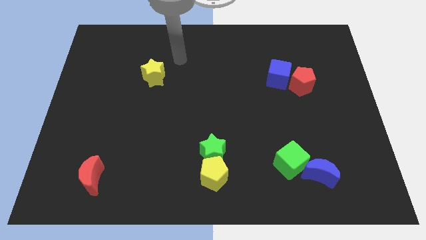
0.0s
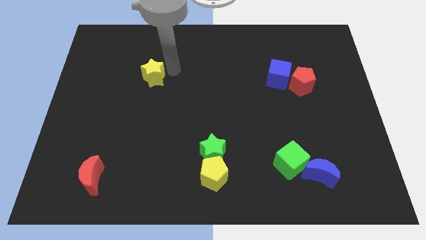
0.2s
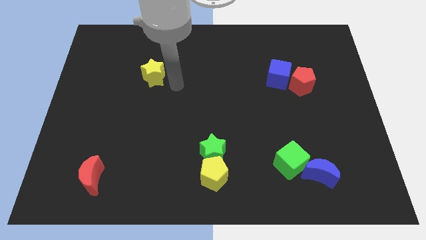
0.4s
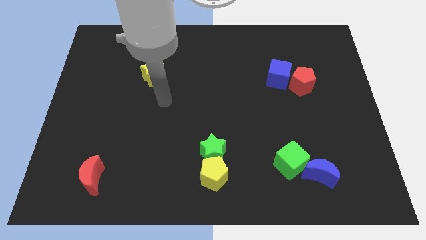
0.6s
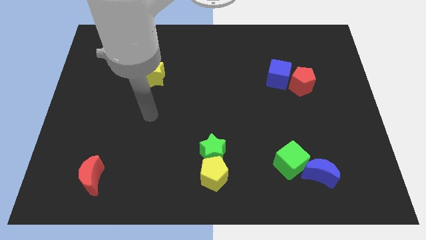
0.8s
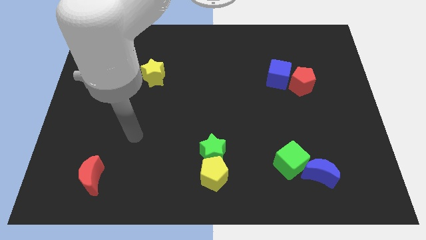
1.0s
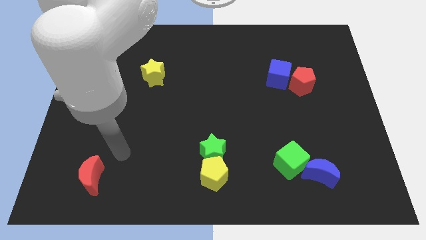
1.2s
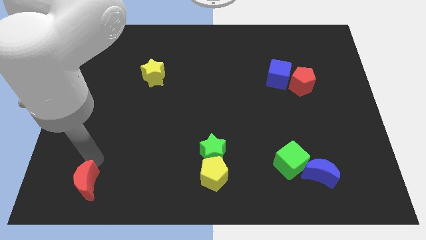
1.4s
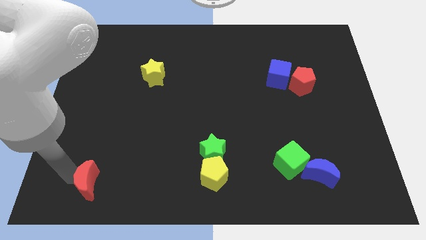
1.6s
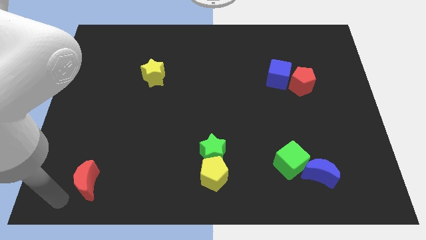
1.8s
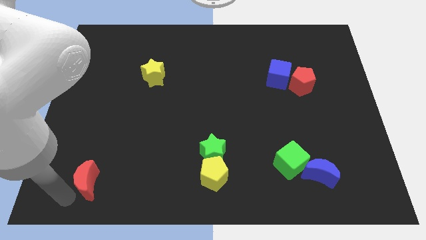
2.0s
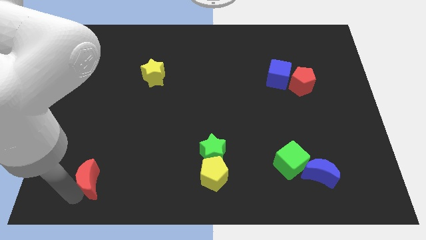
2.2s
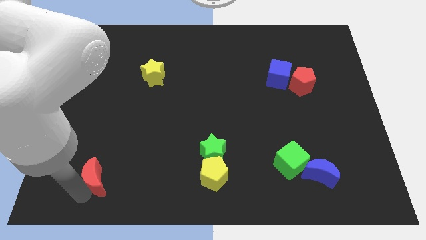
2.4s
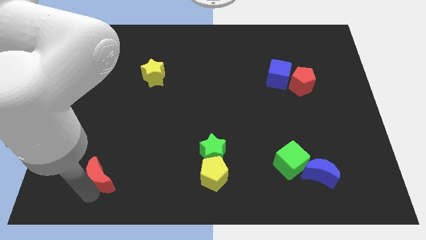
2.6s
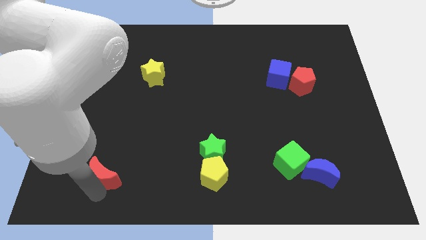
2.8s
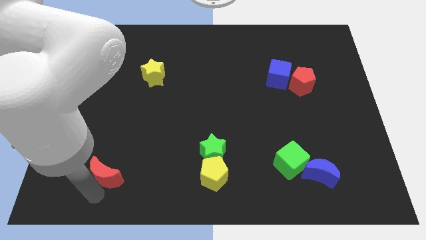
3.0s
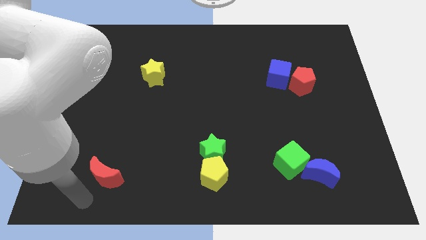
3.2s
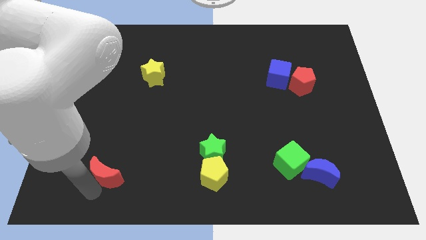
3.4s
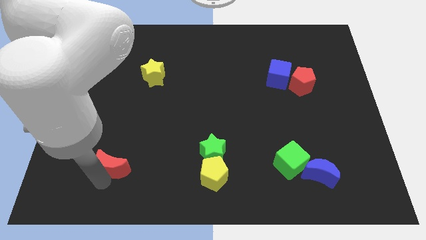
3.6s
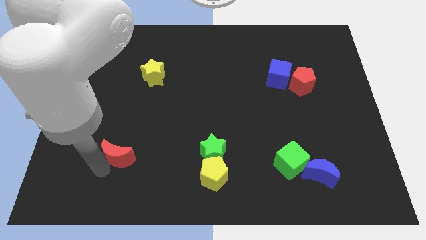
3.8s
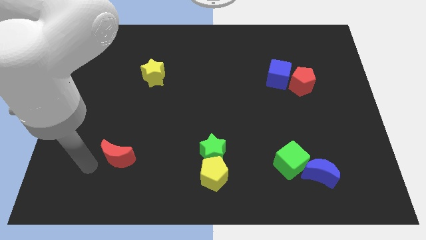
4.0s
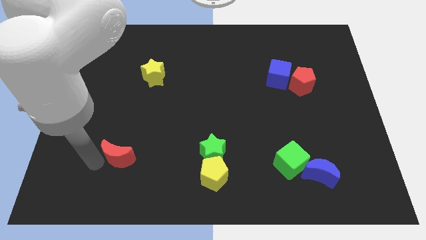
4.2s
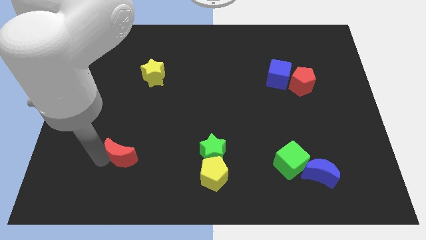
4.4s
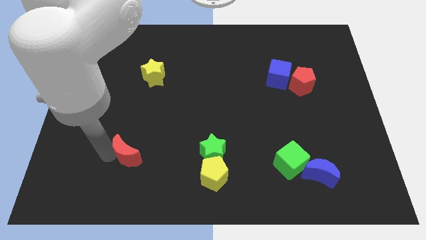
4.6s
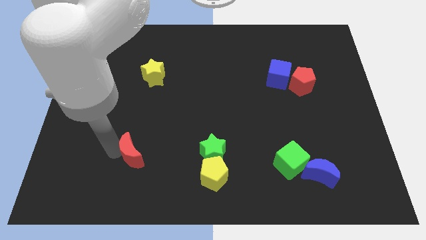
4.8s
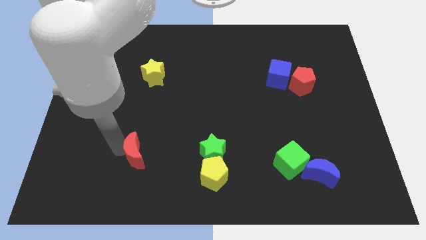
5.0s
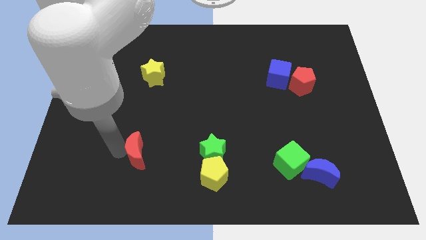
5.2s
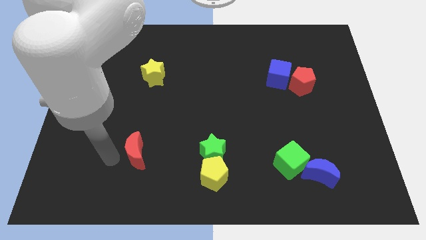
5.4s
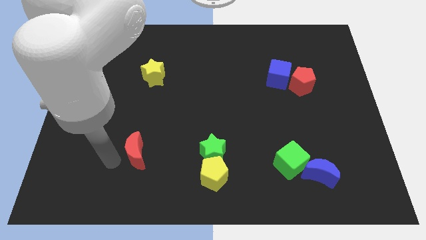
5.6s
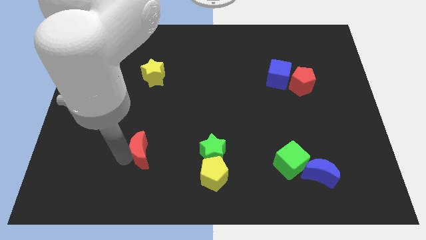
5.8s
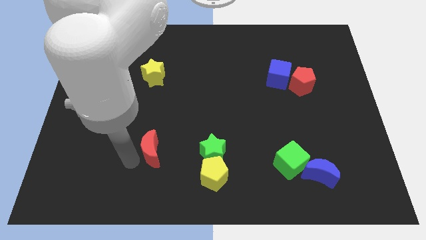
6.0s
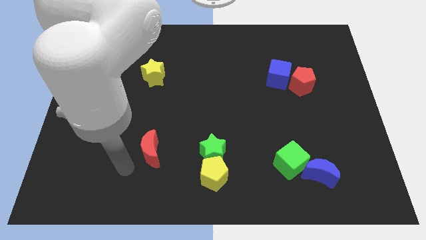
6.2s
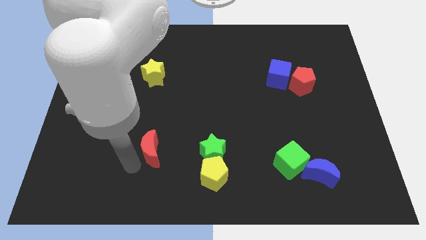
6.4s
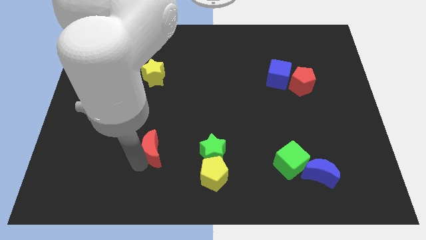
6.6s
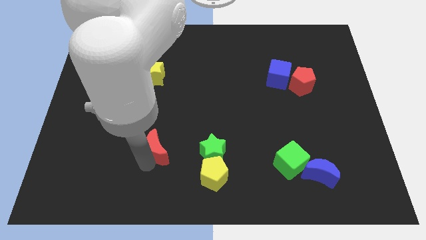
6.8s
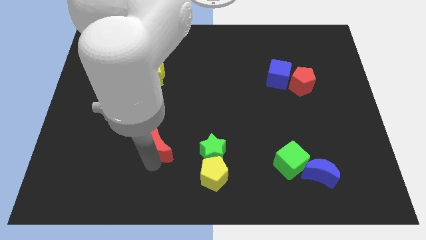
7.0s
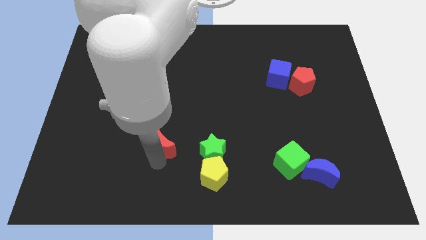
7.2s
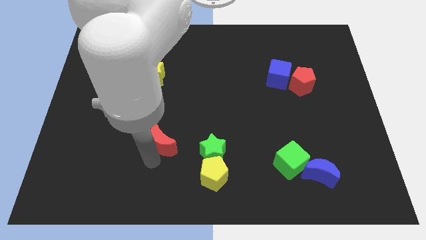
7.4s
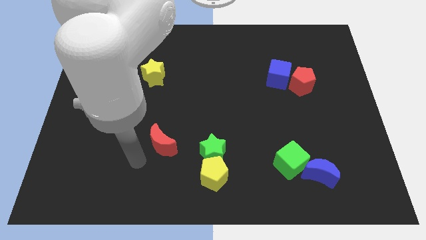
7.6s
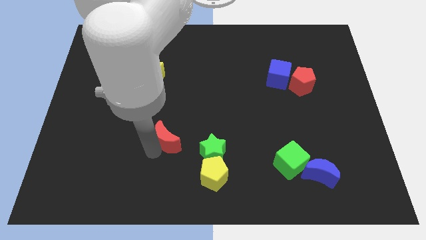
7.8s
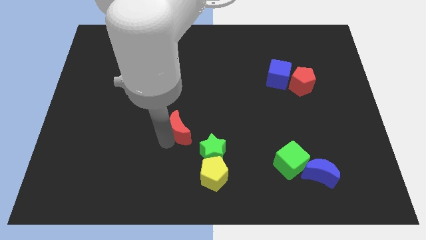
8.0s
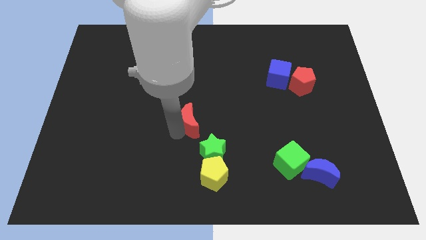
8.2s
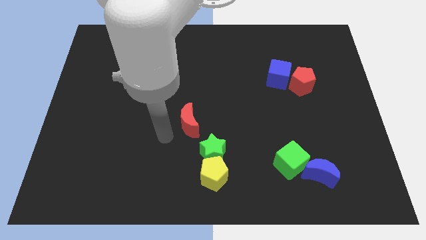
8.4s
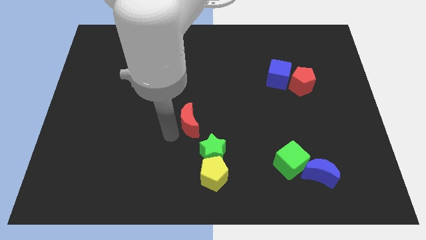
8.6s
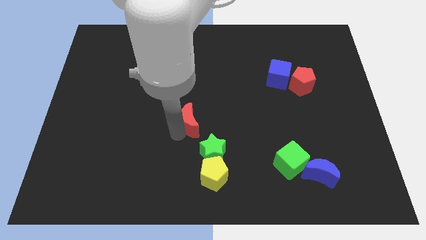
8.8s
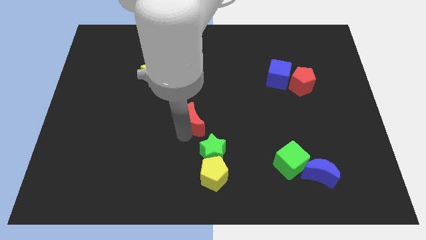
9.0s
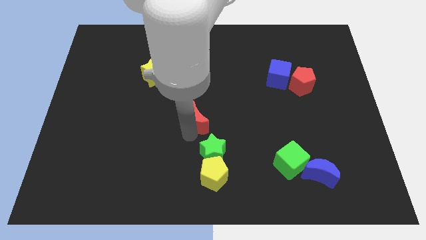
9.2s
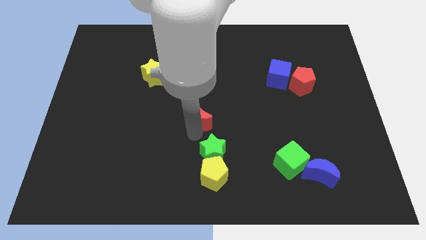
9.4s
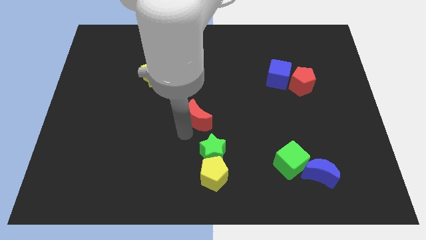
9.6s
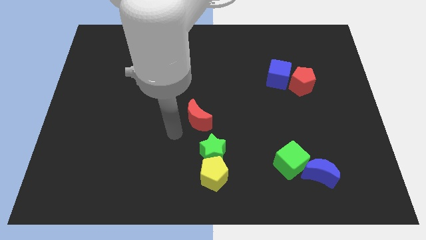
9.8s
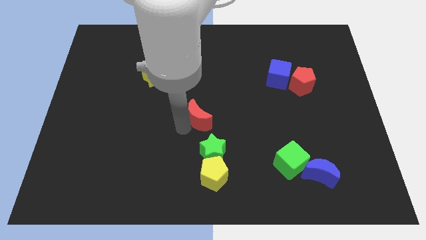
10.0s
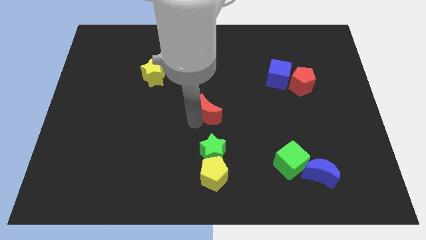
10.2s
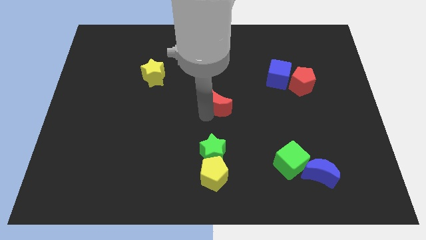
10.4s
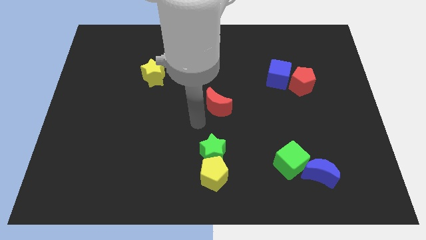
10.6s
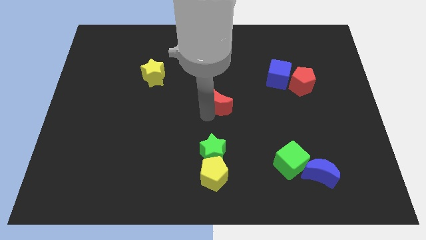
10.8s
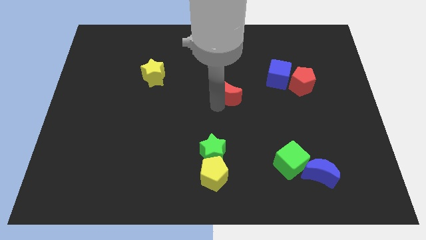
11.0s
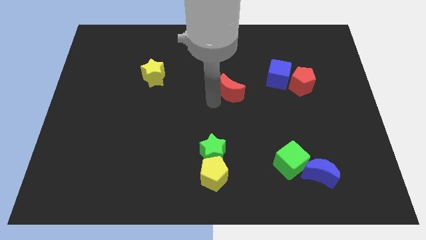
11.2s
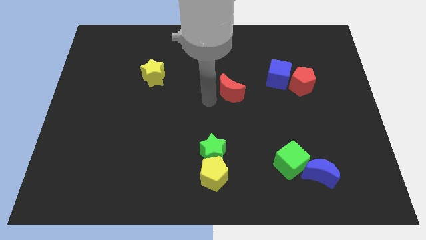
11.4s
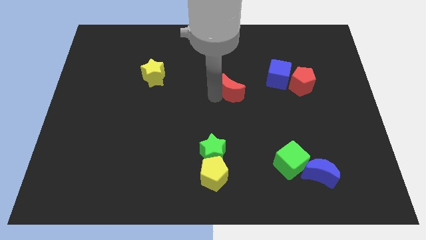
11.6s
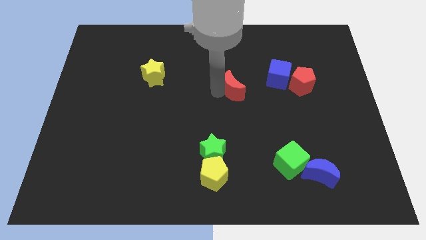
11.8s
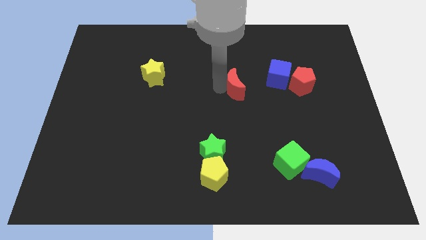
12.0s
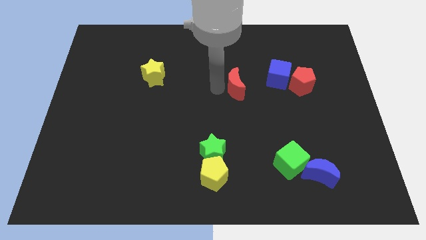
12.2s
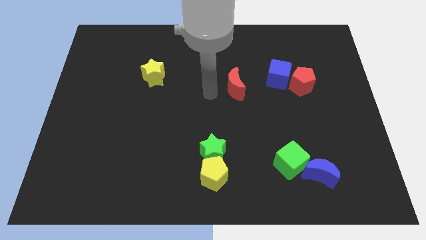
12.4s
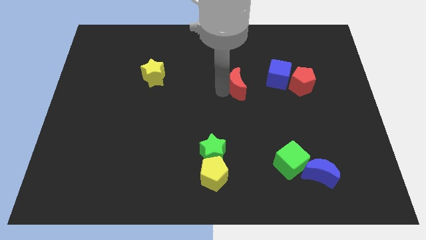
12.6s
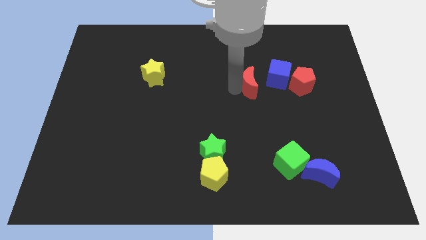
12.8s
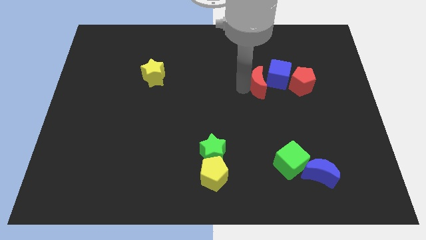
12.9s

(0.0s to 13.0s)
push the red moon next to the blue cube

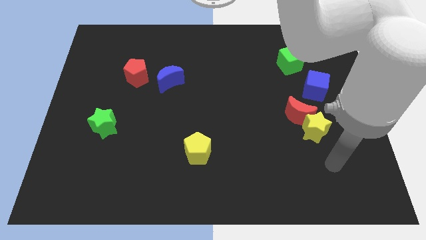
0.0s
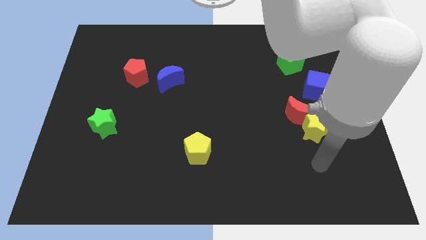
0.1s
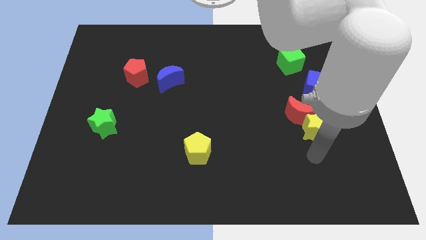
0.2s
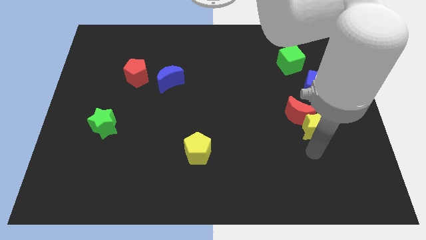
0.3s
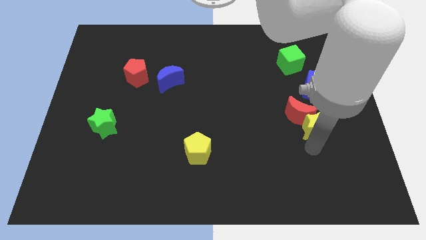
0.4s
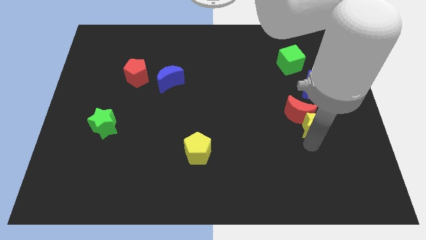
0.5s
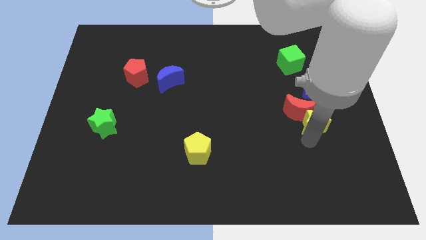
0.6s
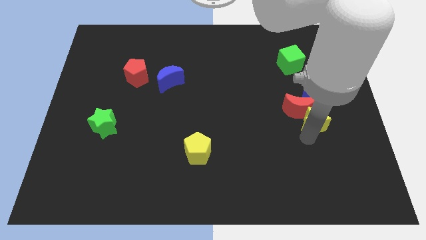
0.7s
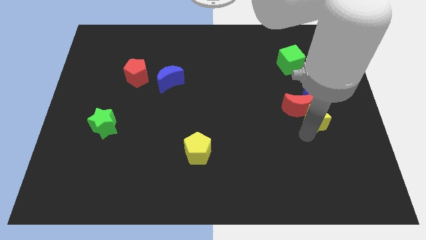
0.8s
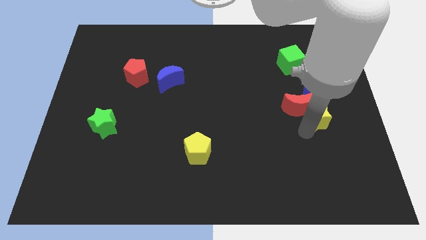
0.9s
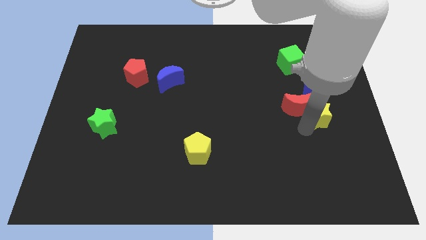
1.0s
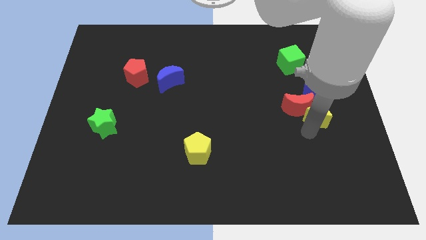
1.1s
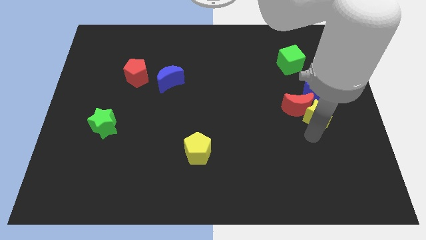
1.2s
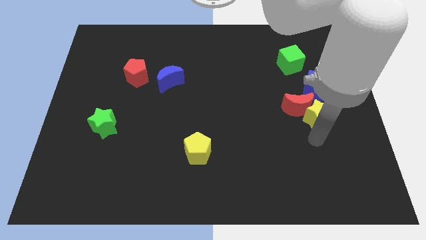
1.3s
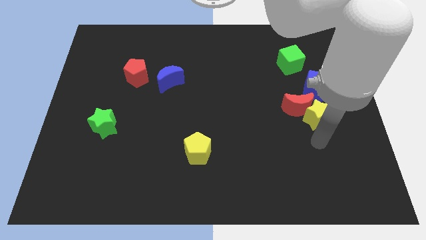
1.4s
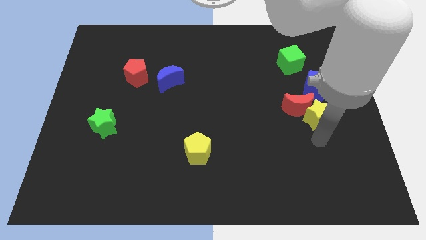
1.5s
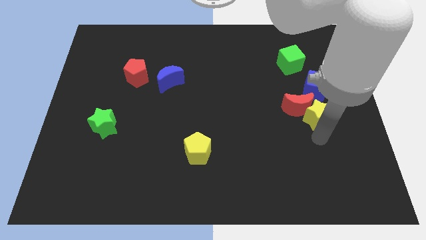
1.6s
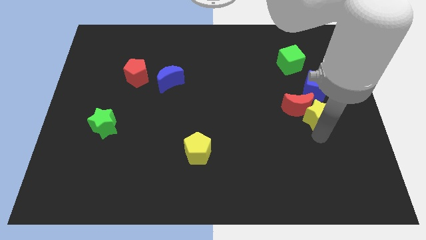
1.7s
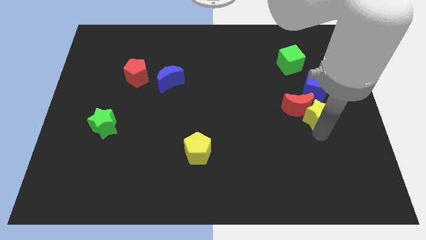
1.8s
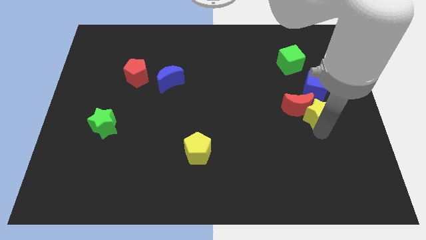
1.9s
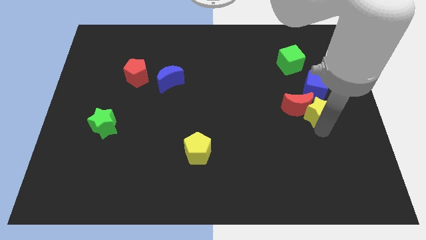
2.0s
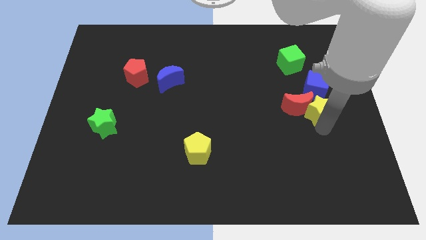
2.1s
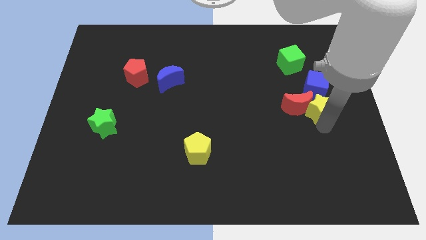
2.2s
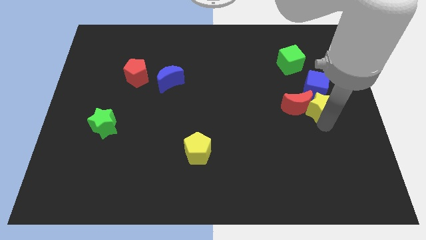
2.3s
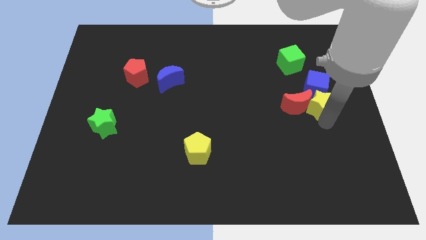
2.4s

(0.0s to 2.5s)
slide the yellow star next to the blue cube
